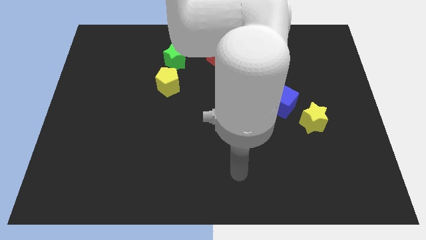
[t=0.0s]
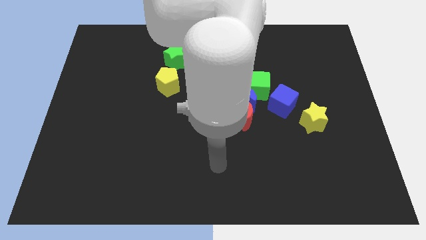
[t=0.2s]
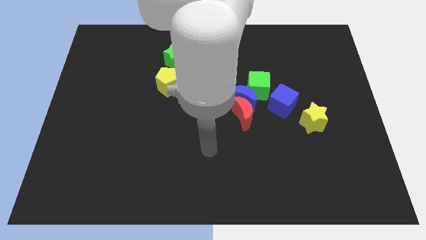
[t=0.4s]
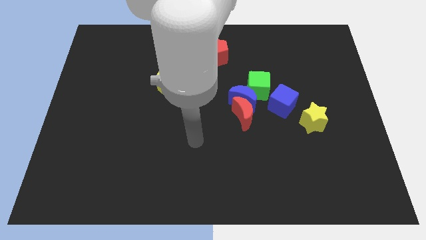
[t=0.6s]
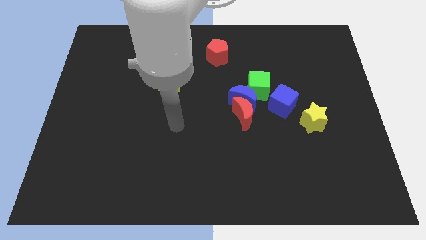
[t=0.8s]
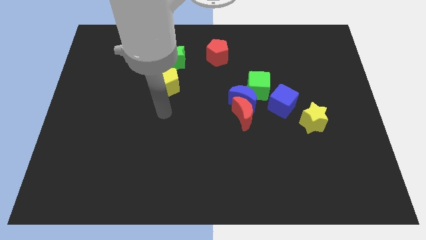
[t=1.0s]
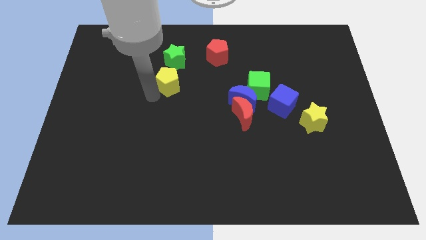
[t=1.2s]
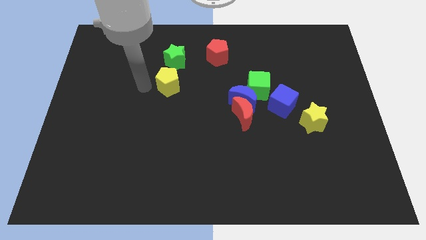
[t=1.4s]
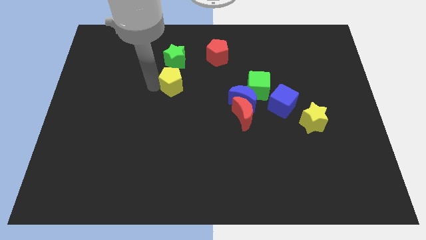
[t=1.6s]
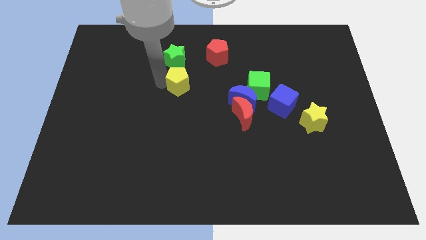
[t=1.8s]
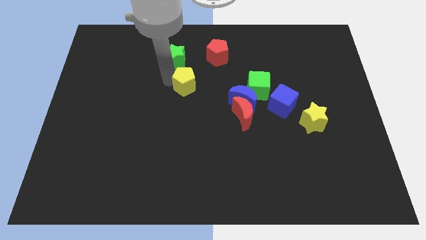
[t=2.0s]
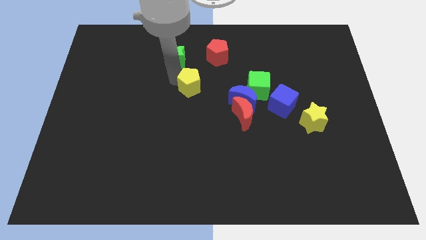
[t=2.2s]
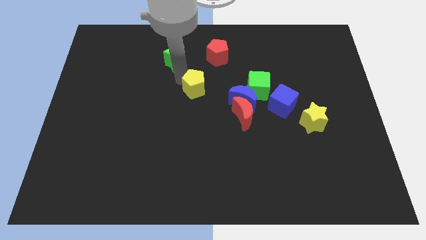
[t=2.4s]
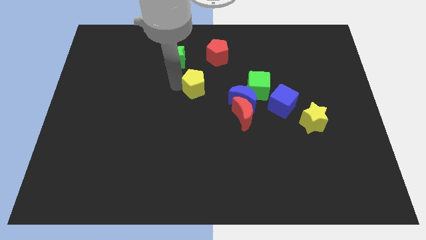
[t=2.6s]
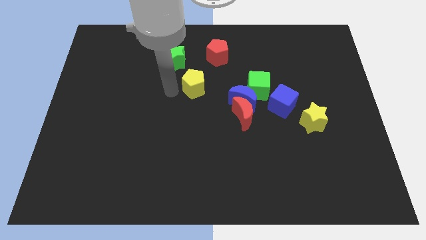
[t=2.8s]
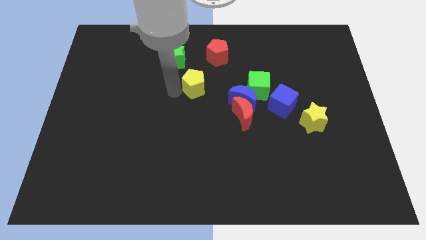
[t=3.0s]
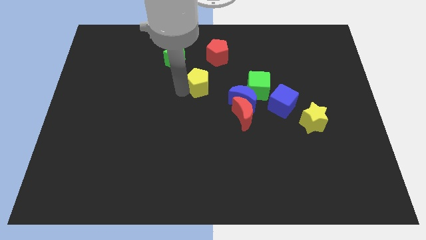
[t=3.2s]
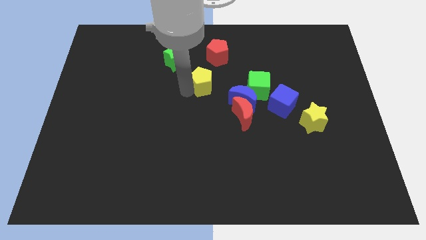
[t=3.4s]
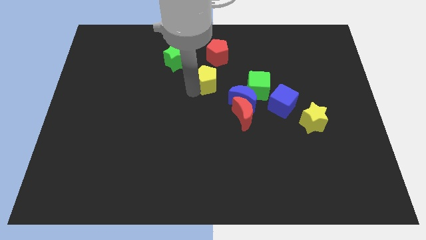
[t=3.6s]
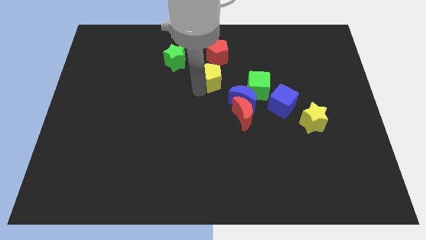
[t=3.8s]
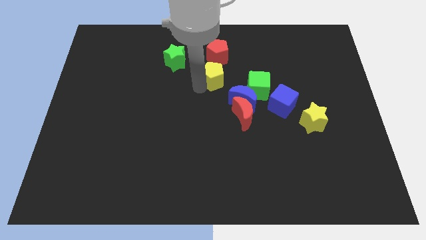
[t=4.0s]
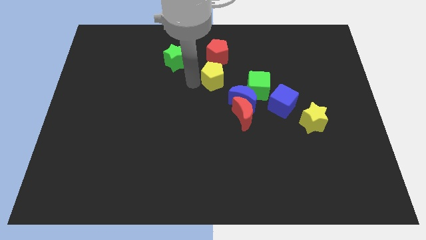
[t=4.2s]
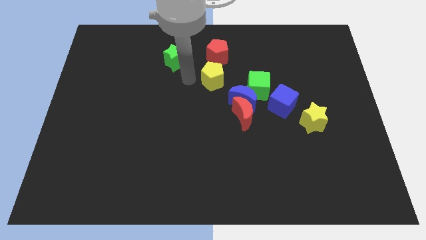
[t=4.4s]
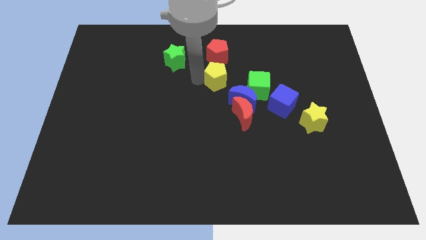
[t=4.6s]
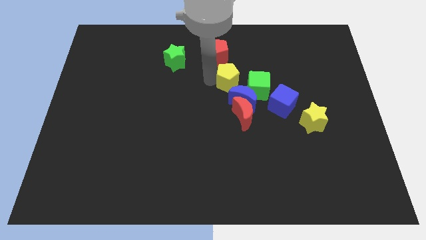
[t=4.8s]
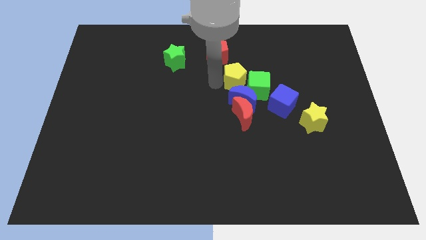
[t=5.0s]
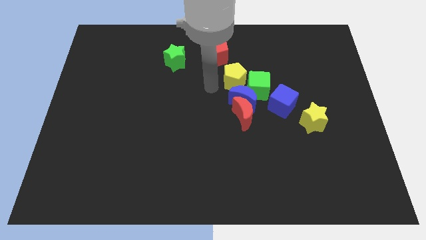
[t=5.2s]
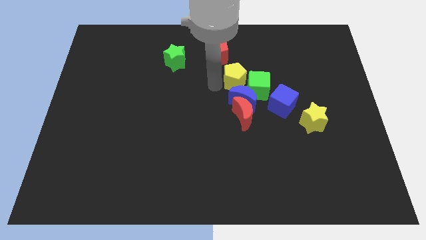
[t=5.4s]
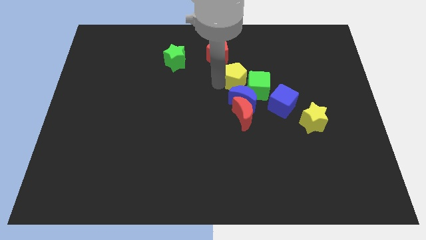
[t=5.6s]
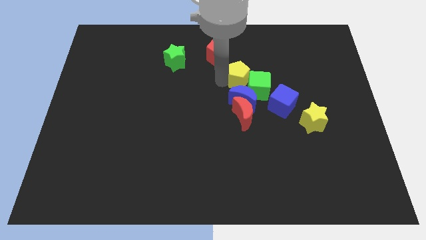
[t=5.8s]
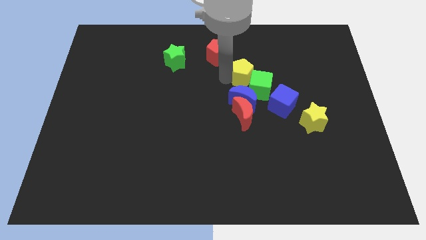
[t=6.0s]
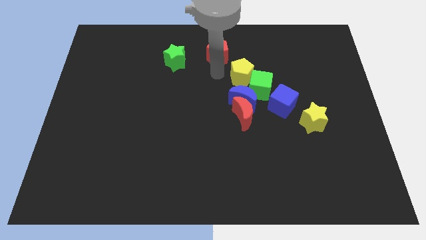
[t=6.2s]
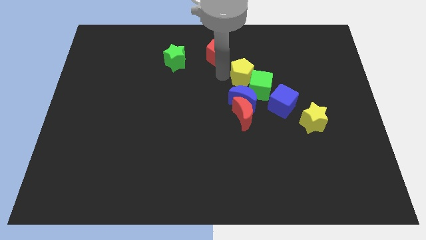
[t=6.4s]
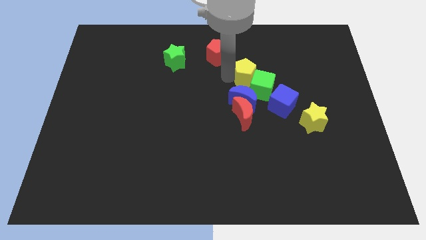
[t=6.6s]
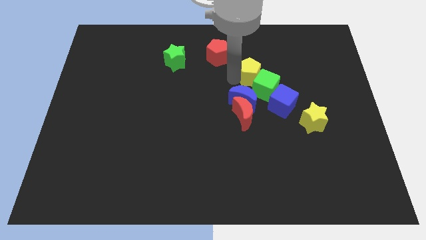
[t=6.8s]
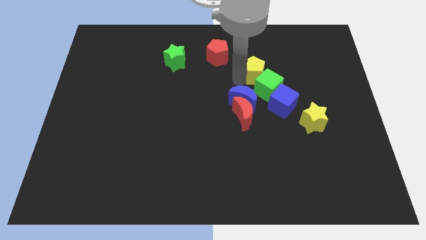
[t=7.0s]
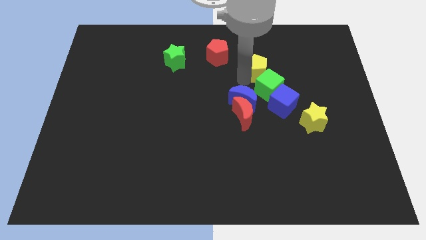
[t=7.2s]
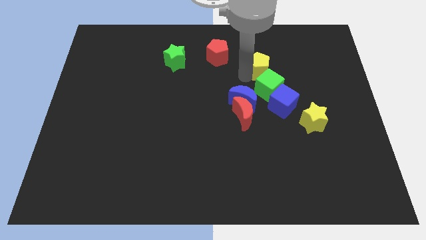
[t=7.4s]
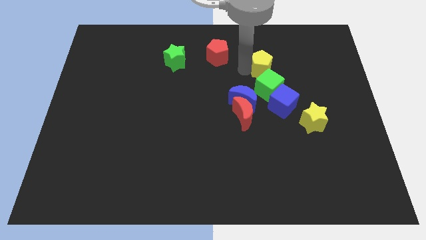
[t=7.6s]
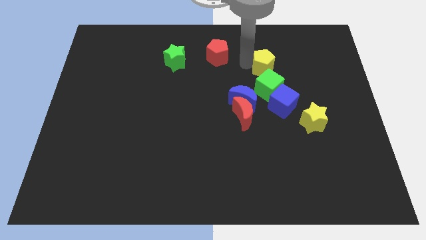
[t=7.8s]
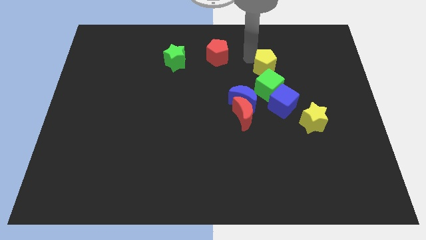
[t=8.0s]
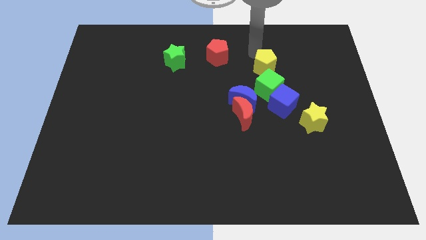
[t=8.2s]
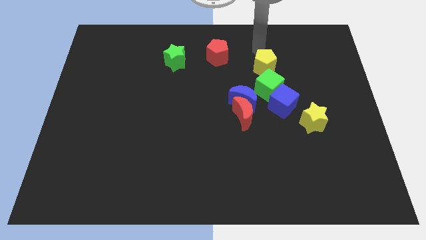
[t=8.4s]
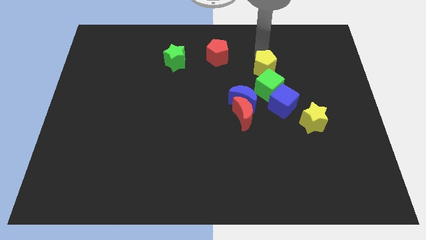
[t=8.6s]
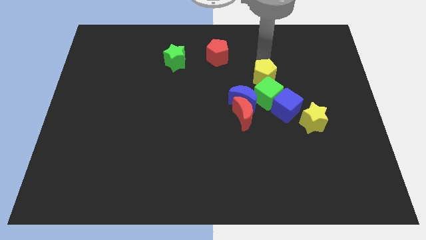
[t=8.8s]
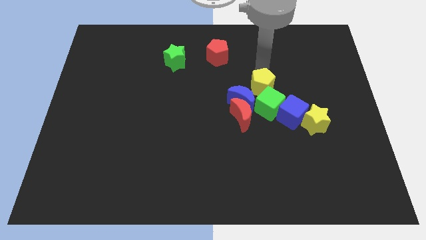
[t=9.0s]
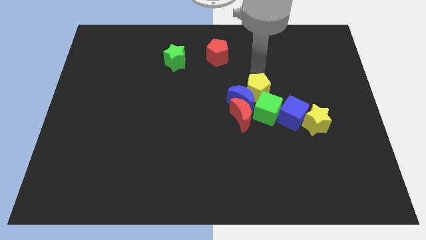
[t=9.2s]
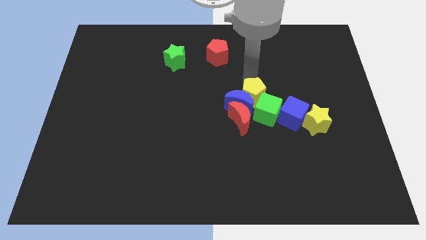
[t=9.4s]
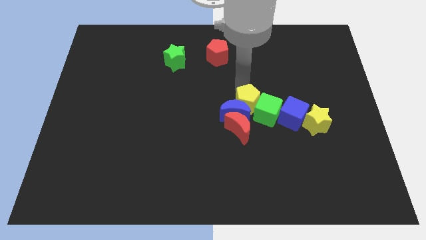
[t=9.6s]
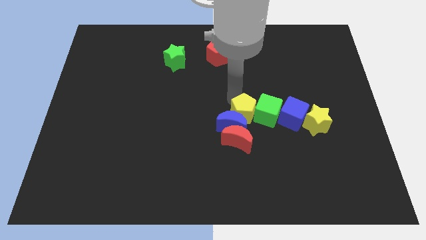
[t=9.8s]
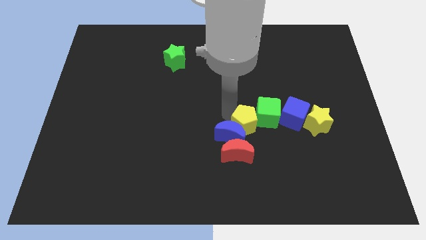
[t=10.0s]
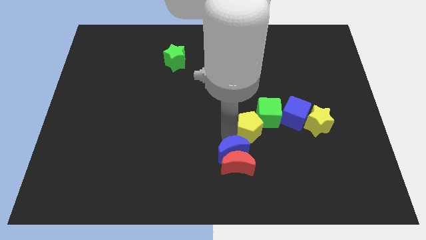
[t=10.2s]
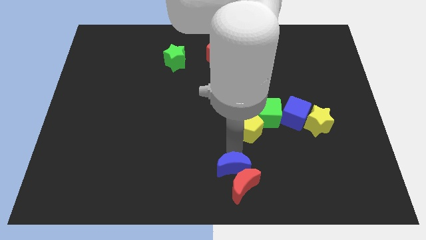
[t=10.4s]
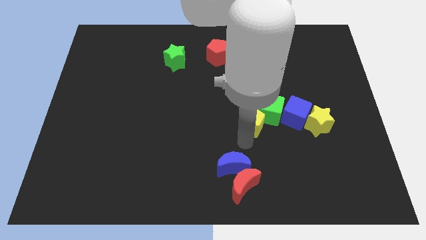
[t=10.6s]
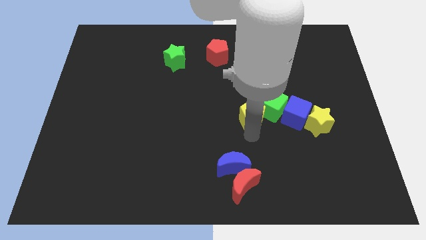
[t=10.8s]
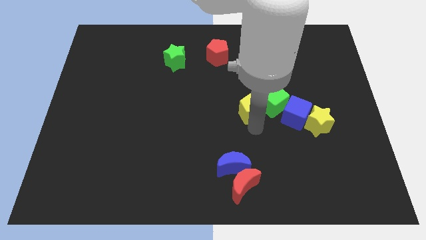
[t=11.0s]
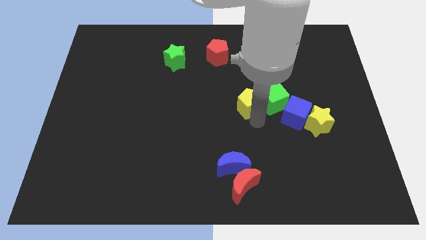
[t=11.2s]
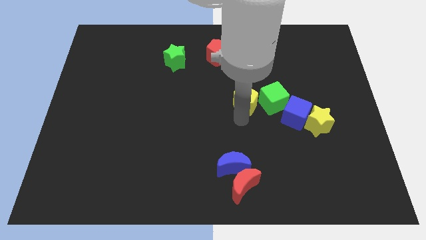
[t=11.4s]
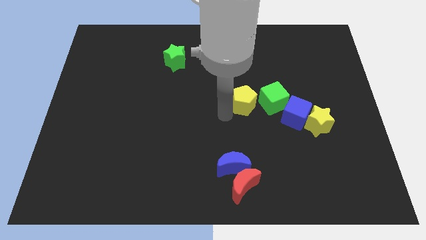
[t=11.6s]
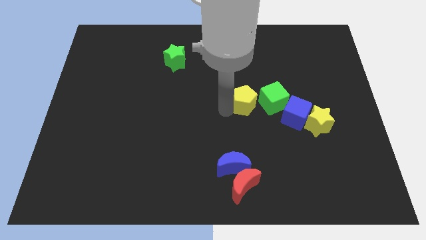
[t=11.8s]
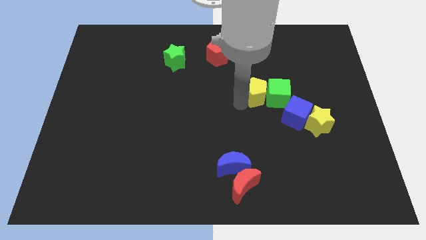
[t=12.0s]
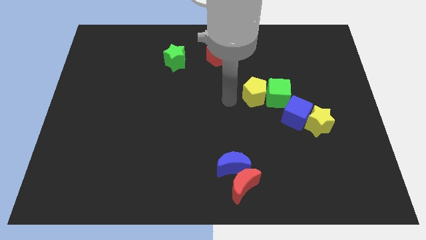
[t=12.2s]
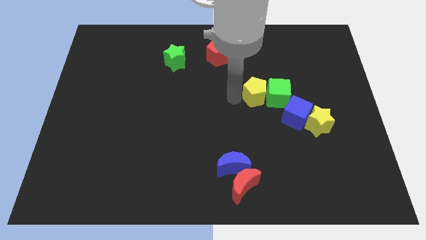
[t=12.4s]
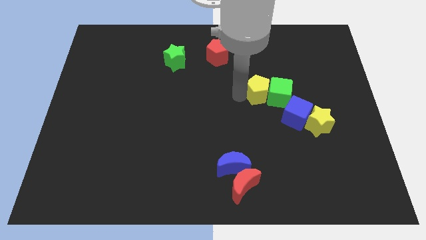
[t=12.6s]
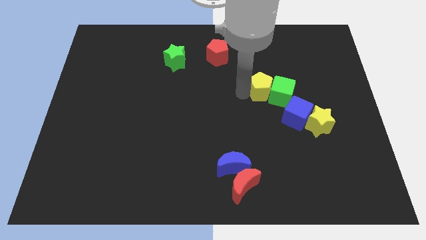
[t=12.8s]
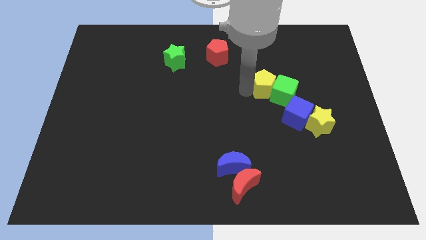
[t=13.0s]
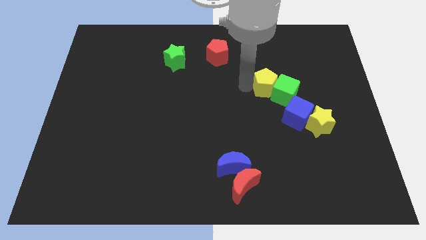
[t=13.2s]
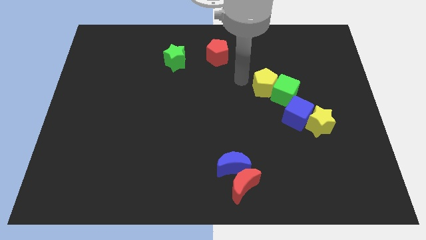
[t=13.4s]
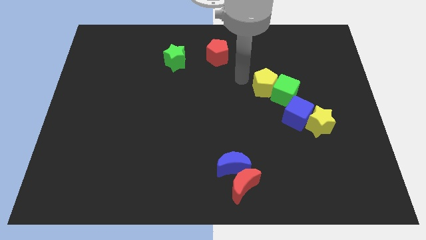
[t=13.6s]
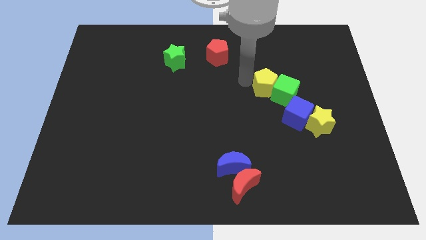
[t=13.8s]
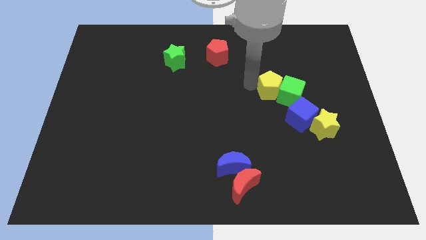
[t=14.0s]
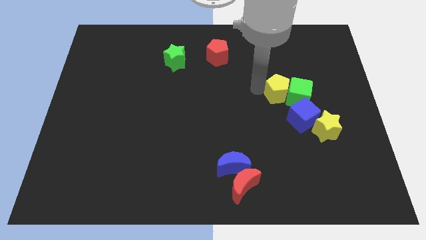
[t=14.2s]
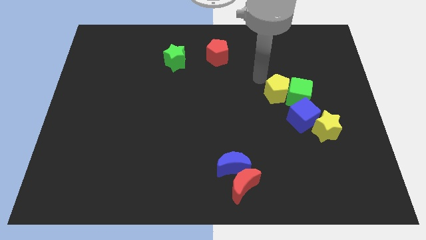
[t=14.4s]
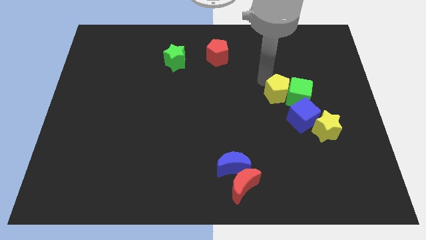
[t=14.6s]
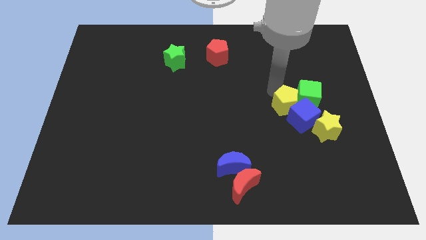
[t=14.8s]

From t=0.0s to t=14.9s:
put the yellow pentagon close to the blue cube
